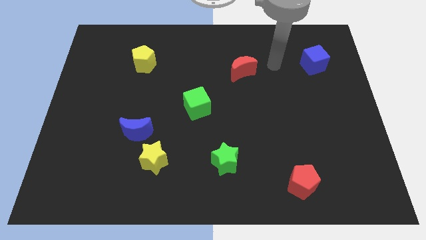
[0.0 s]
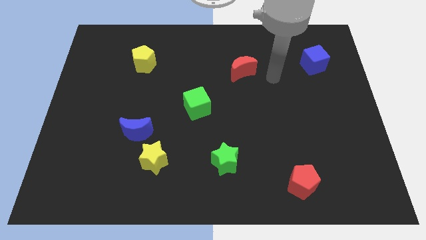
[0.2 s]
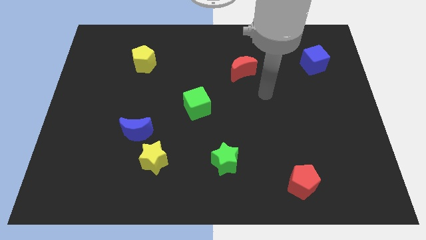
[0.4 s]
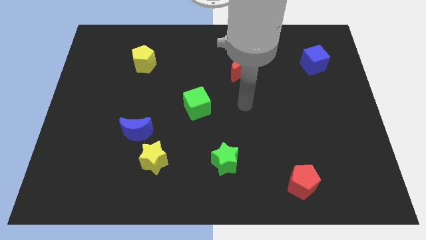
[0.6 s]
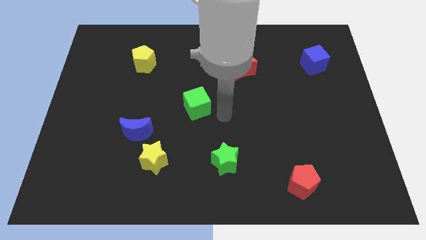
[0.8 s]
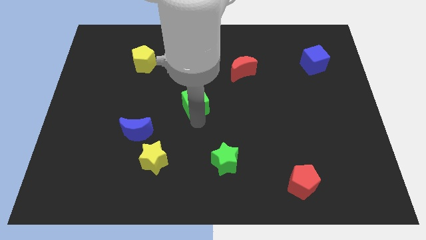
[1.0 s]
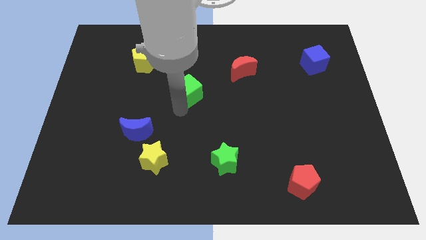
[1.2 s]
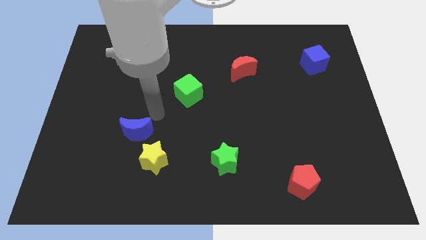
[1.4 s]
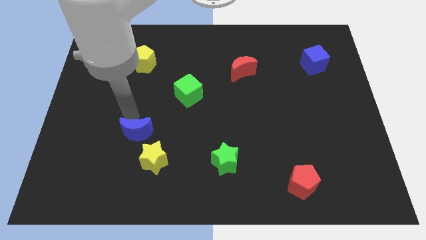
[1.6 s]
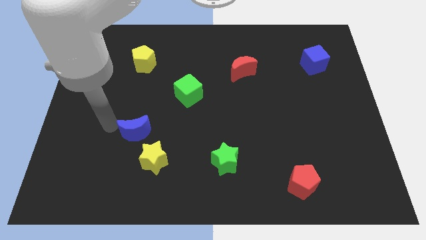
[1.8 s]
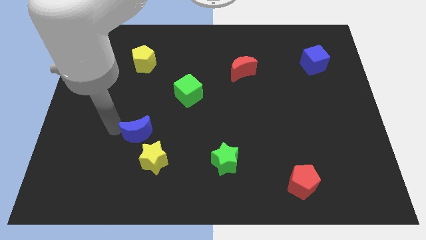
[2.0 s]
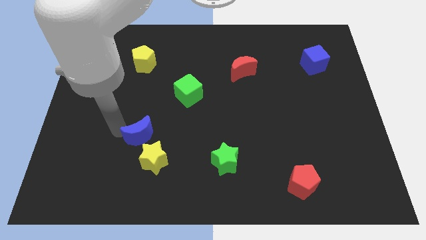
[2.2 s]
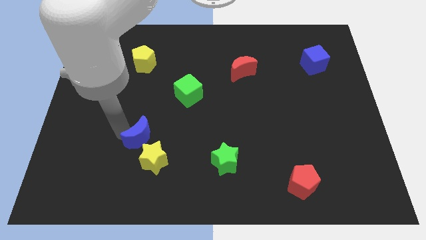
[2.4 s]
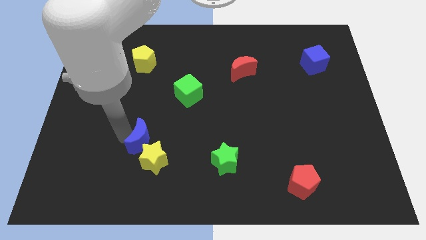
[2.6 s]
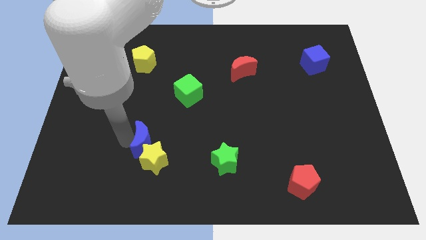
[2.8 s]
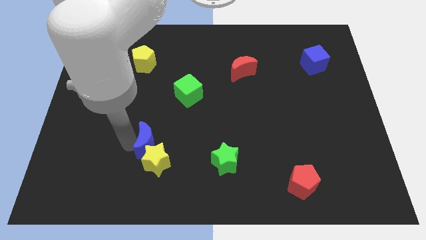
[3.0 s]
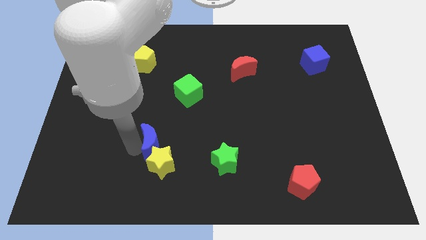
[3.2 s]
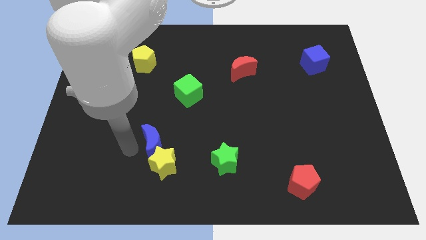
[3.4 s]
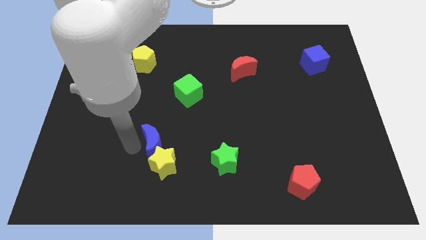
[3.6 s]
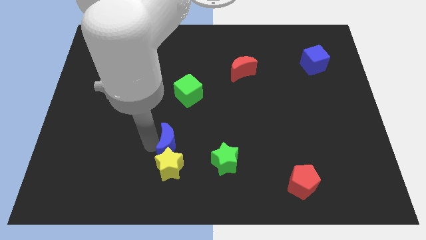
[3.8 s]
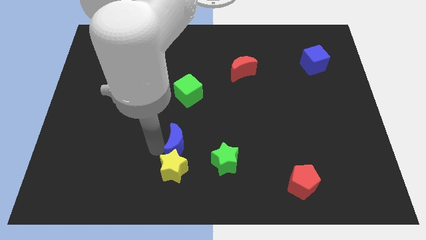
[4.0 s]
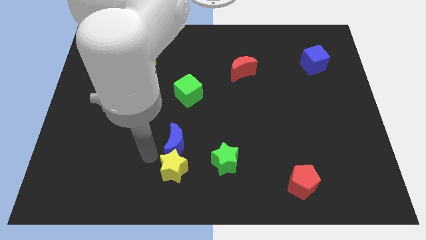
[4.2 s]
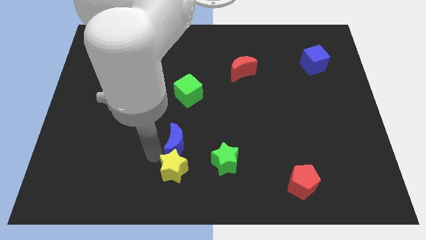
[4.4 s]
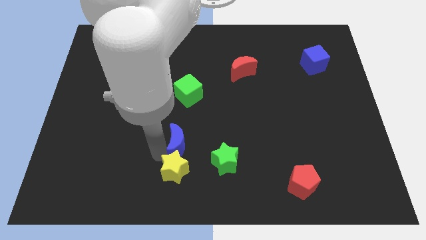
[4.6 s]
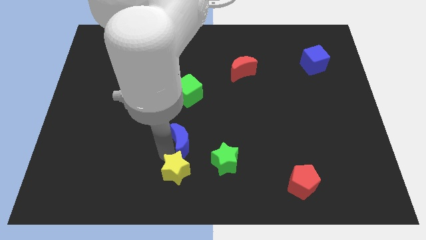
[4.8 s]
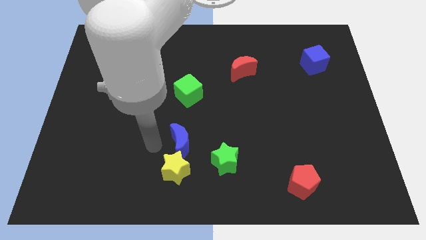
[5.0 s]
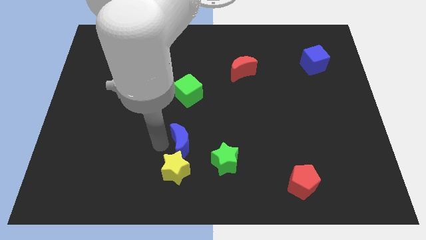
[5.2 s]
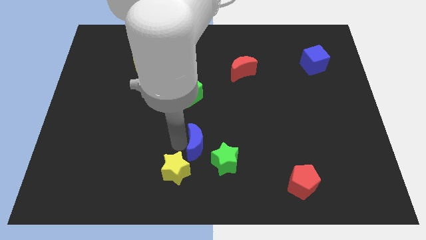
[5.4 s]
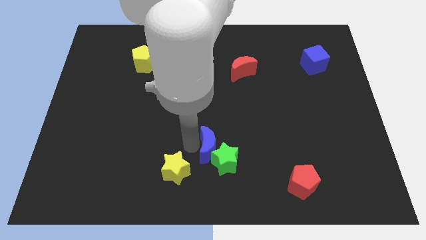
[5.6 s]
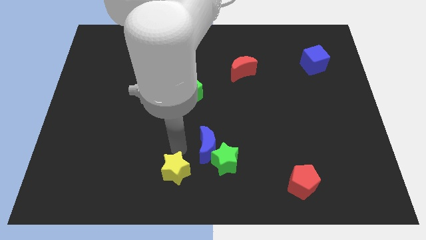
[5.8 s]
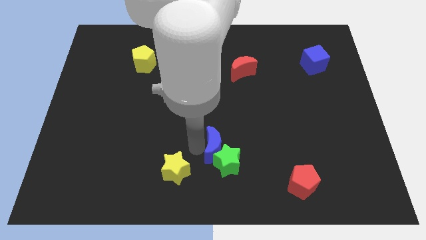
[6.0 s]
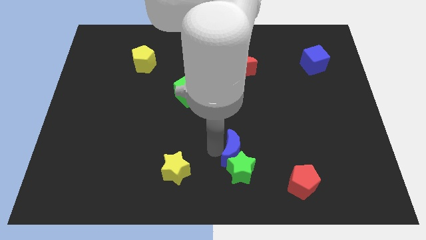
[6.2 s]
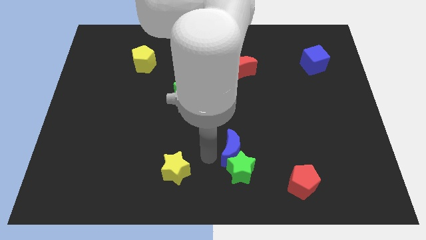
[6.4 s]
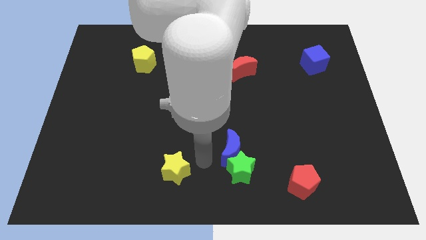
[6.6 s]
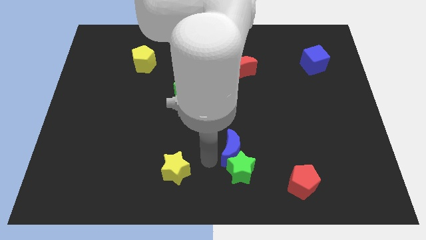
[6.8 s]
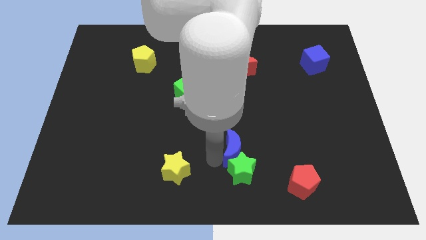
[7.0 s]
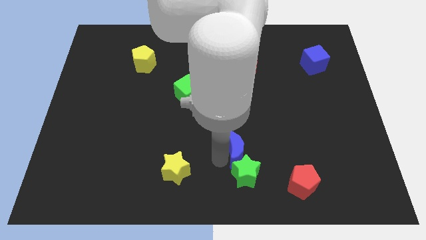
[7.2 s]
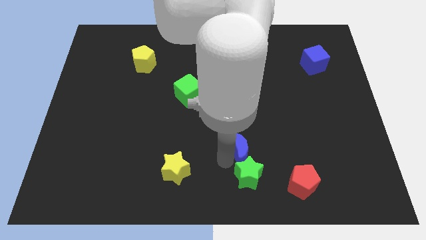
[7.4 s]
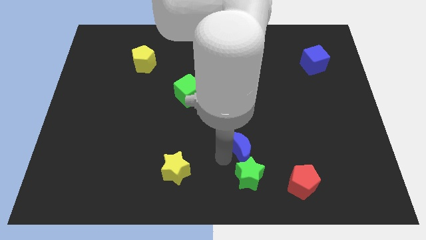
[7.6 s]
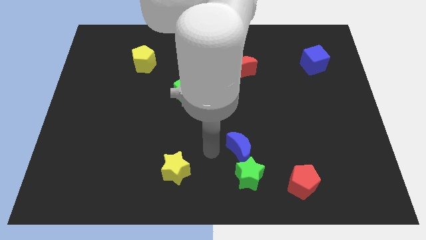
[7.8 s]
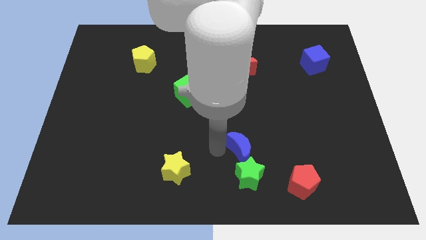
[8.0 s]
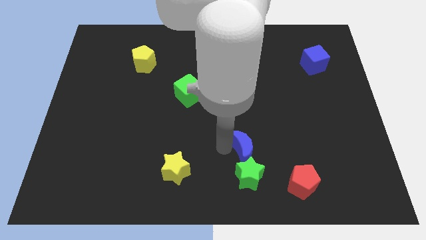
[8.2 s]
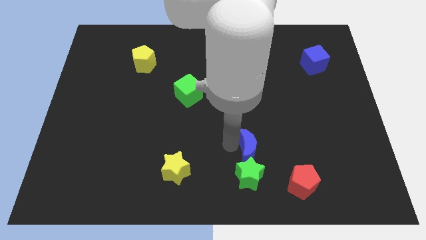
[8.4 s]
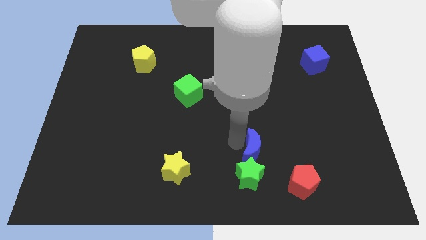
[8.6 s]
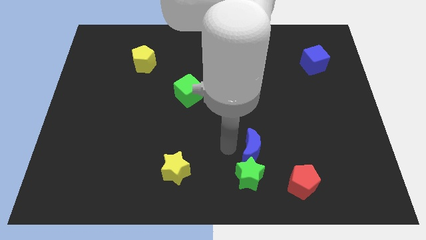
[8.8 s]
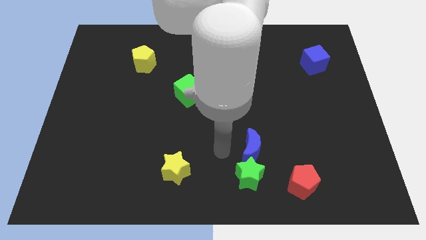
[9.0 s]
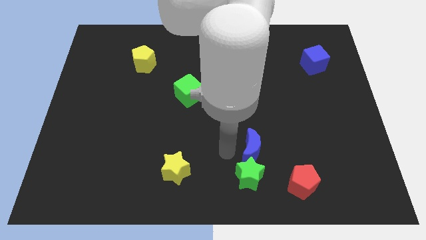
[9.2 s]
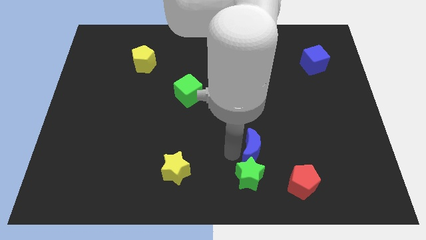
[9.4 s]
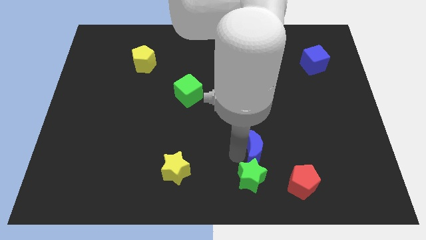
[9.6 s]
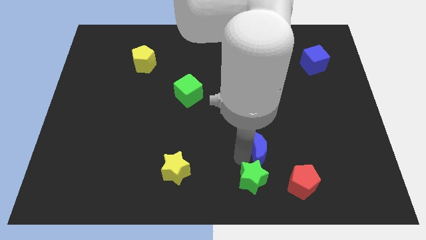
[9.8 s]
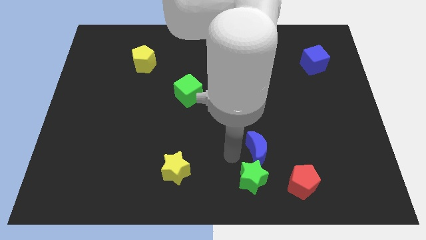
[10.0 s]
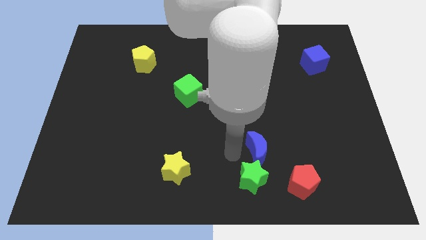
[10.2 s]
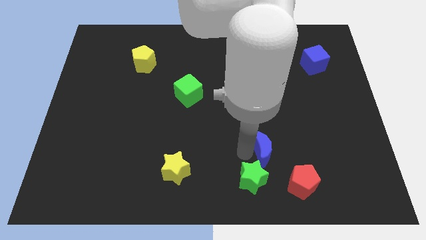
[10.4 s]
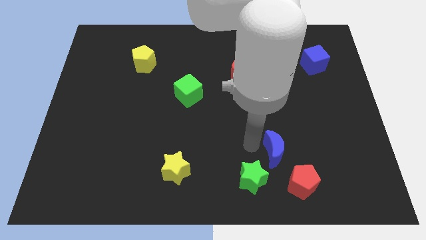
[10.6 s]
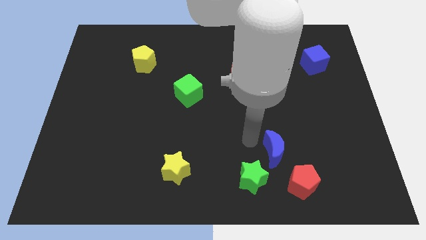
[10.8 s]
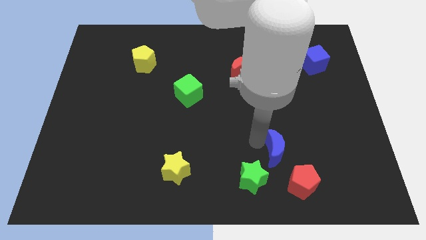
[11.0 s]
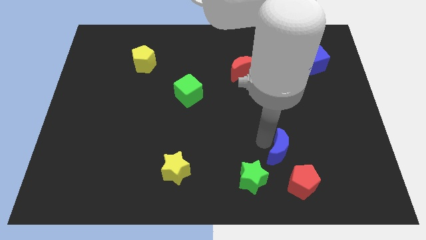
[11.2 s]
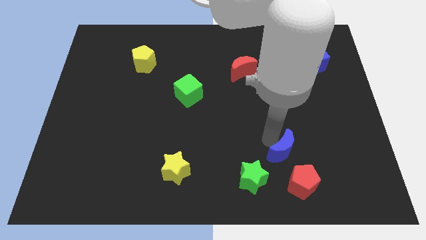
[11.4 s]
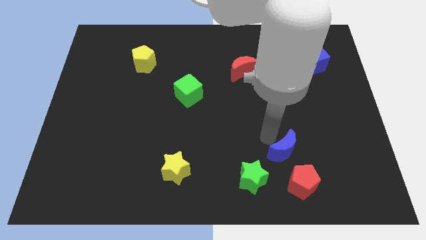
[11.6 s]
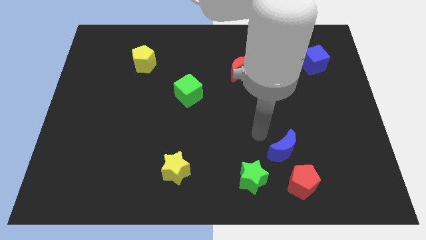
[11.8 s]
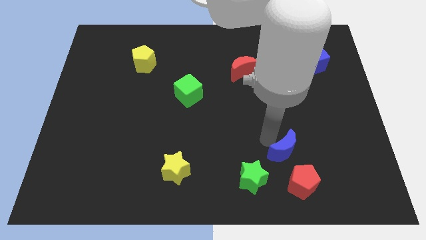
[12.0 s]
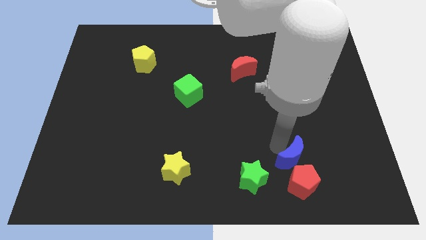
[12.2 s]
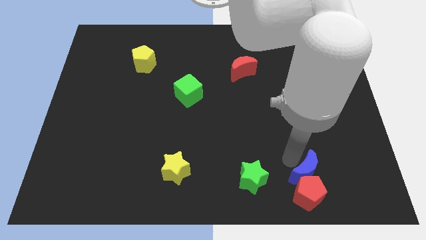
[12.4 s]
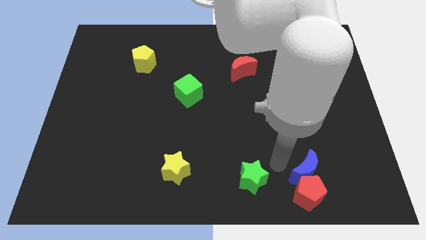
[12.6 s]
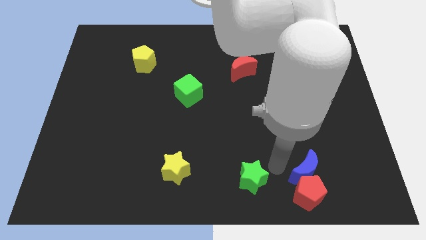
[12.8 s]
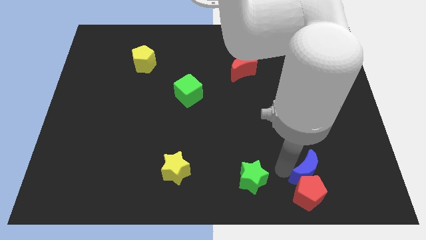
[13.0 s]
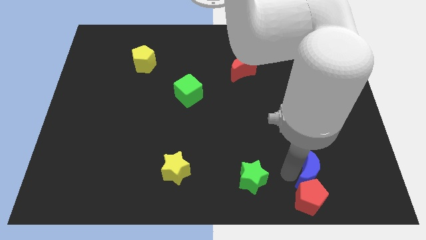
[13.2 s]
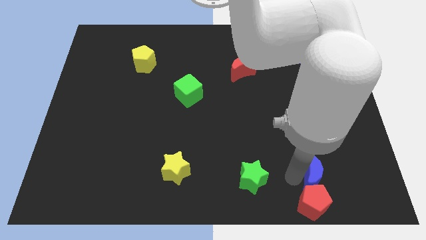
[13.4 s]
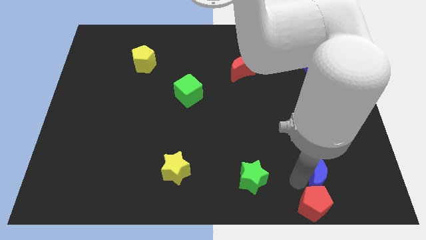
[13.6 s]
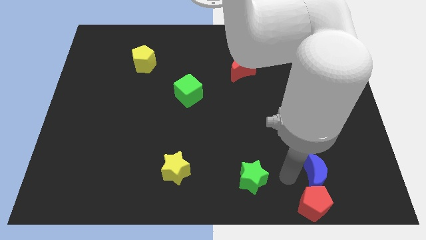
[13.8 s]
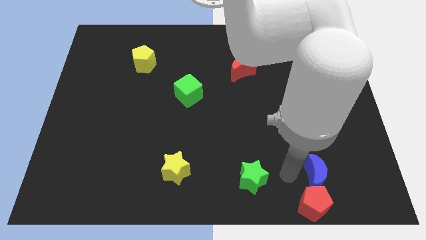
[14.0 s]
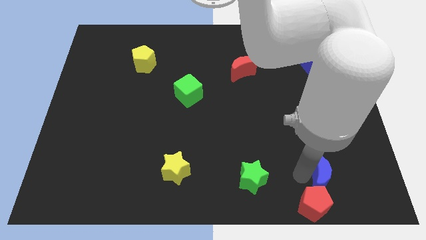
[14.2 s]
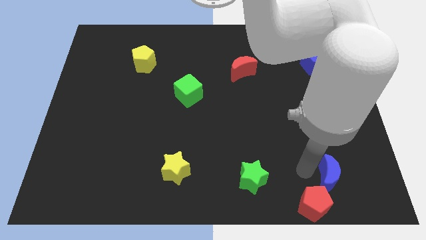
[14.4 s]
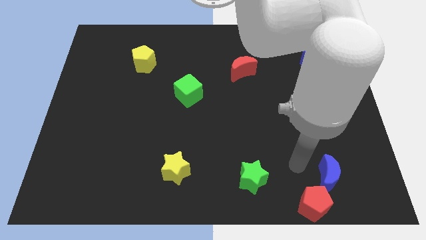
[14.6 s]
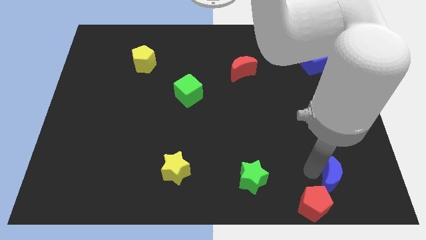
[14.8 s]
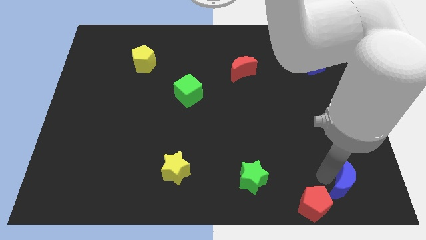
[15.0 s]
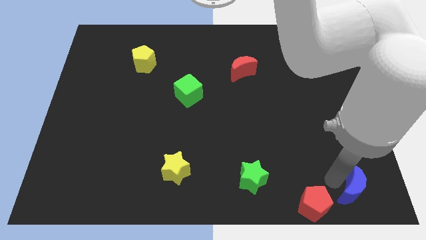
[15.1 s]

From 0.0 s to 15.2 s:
slide the blue moon to the bottom right corner
